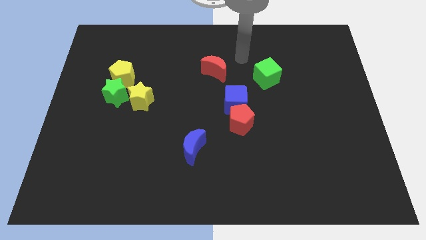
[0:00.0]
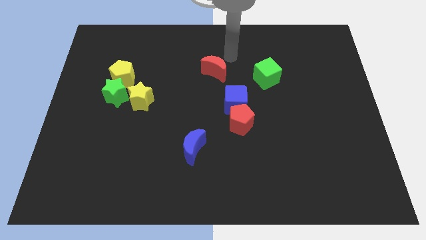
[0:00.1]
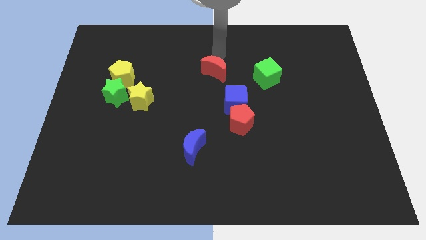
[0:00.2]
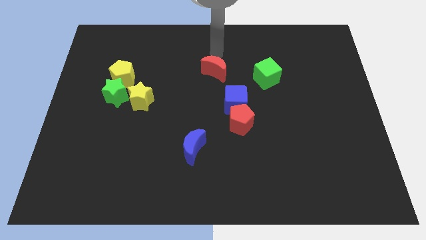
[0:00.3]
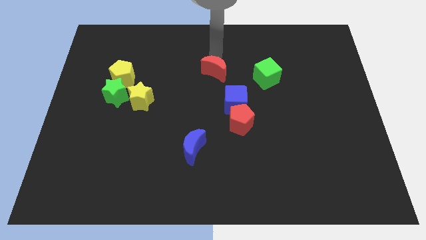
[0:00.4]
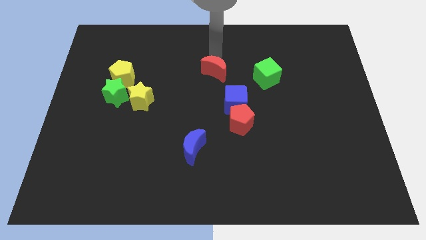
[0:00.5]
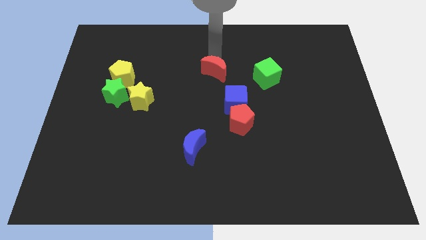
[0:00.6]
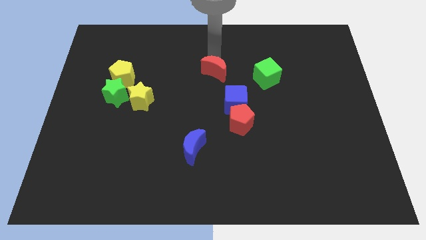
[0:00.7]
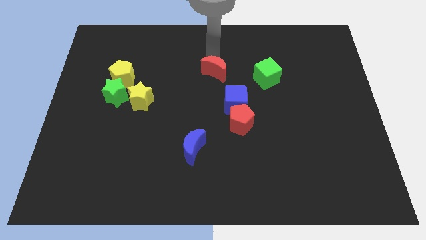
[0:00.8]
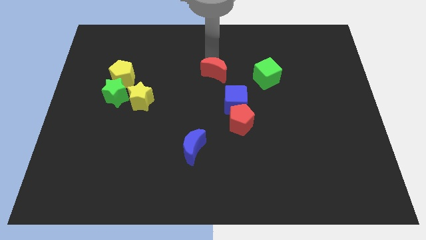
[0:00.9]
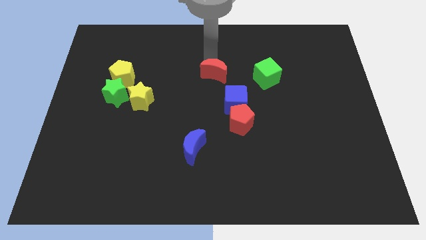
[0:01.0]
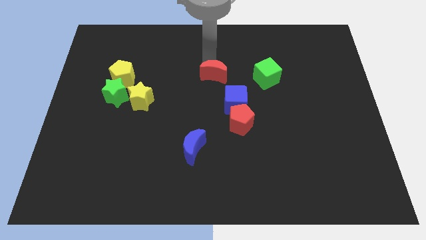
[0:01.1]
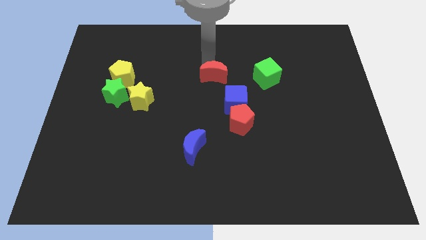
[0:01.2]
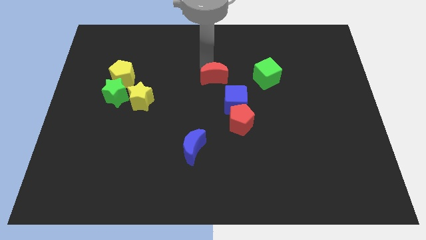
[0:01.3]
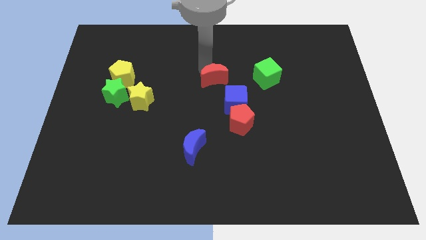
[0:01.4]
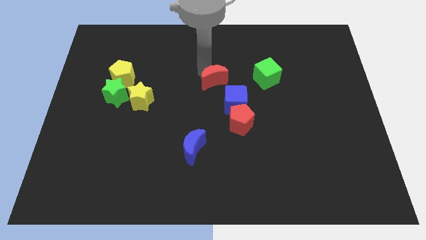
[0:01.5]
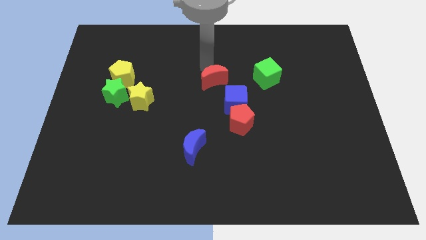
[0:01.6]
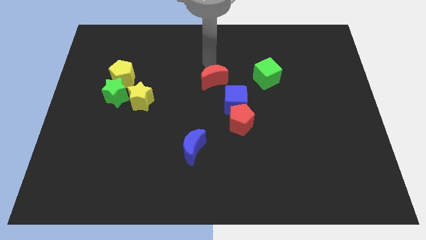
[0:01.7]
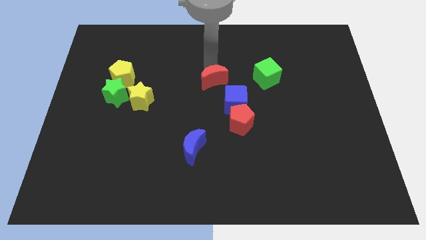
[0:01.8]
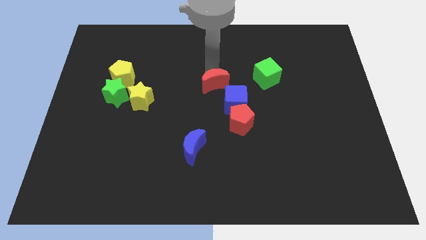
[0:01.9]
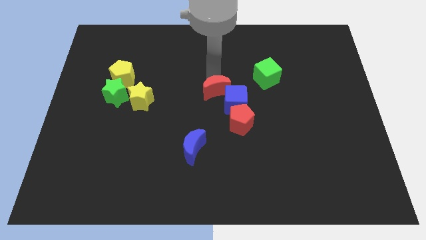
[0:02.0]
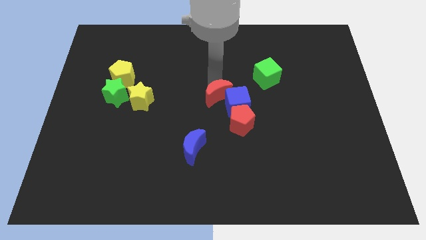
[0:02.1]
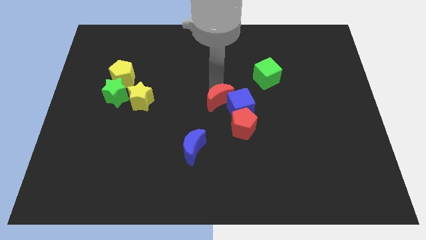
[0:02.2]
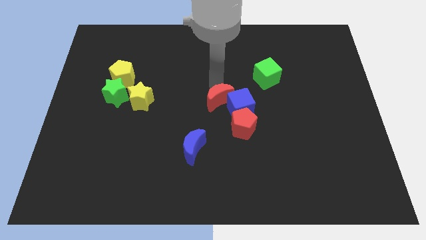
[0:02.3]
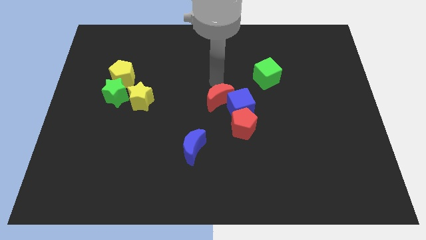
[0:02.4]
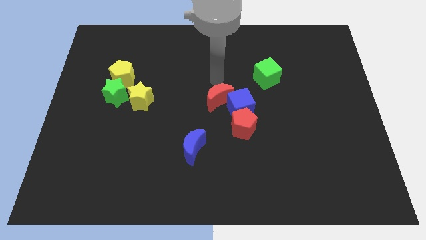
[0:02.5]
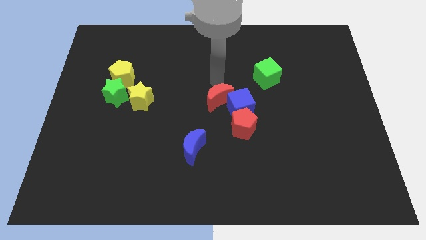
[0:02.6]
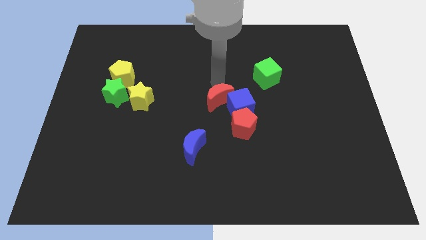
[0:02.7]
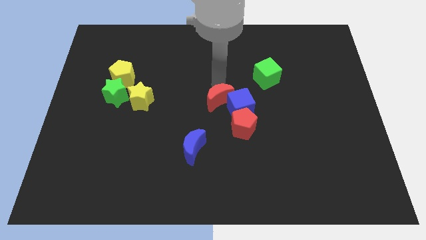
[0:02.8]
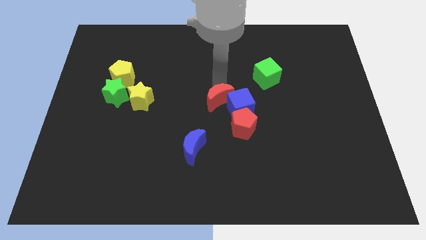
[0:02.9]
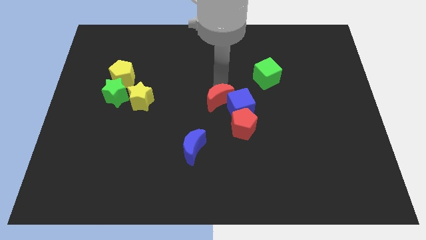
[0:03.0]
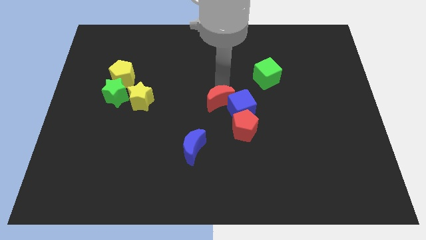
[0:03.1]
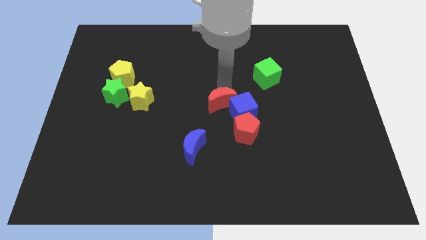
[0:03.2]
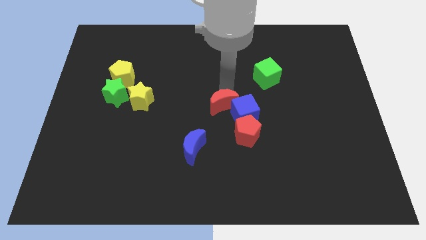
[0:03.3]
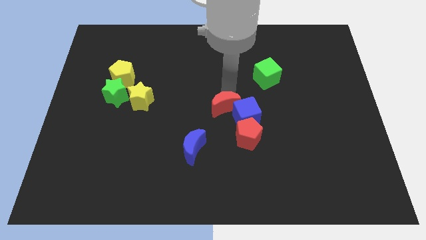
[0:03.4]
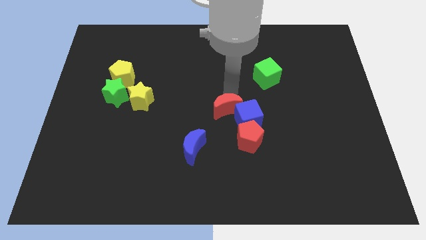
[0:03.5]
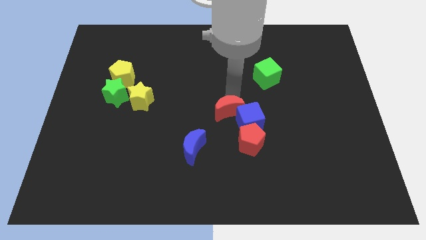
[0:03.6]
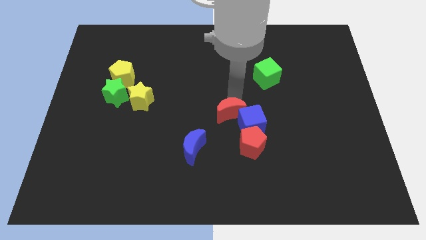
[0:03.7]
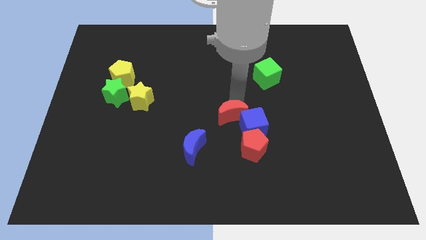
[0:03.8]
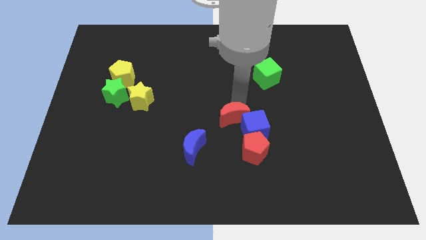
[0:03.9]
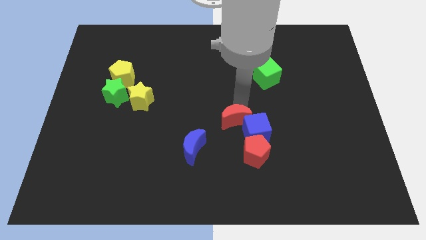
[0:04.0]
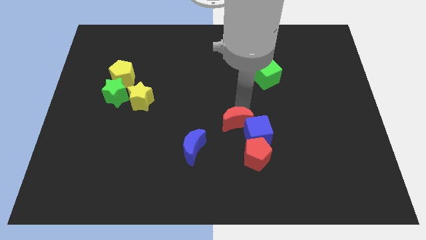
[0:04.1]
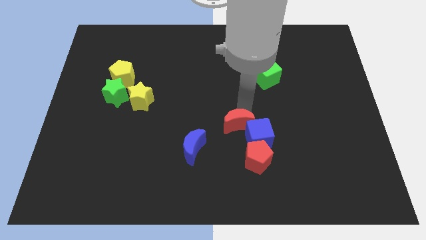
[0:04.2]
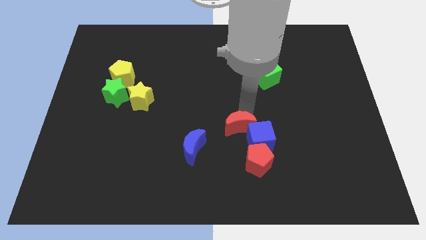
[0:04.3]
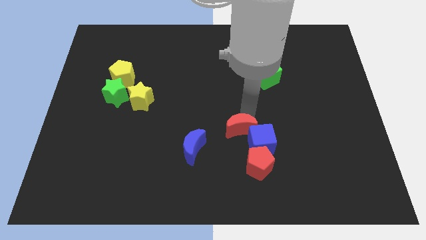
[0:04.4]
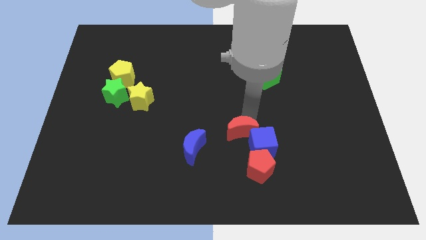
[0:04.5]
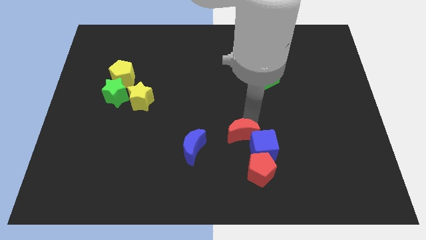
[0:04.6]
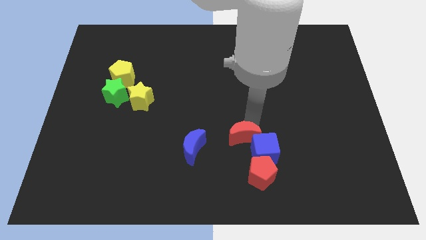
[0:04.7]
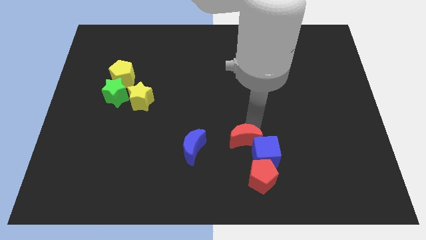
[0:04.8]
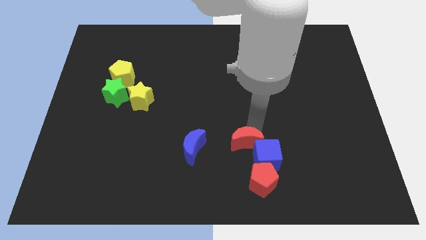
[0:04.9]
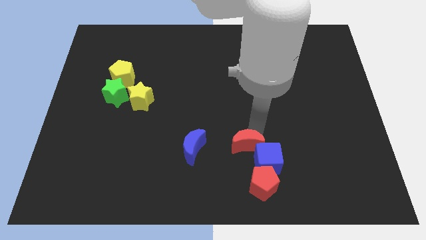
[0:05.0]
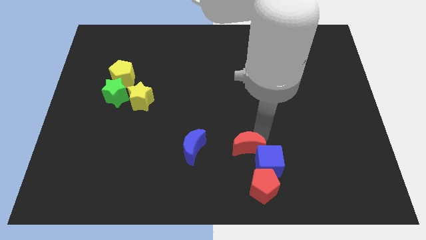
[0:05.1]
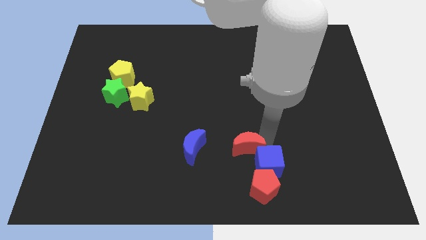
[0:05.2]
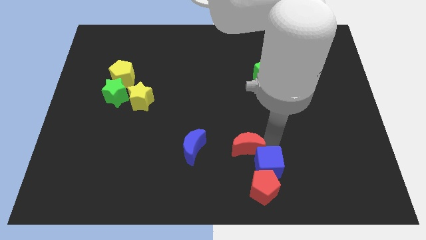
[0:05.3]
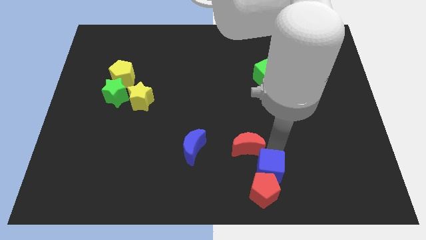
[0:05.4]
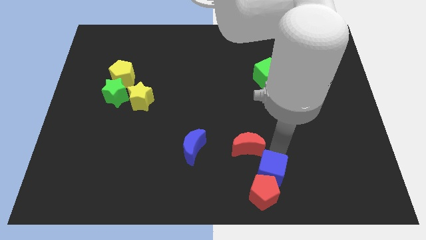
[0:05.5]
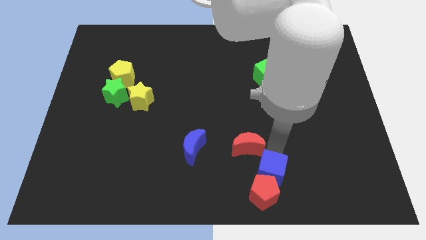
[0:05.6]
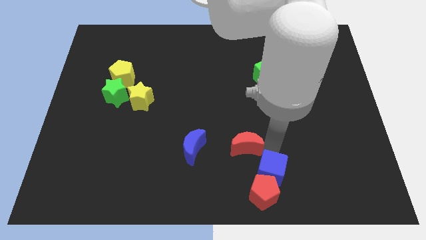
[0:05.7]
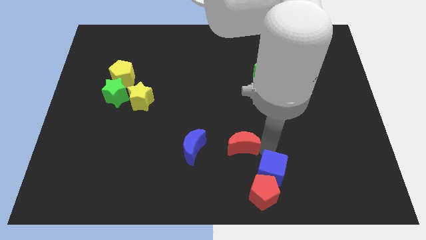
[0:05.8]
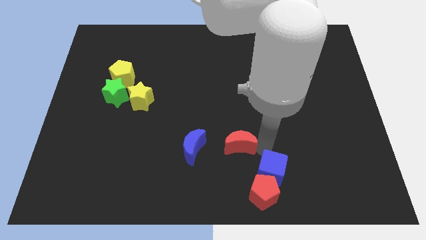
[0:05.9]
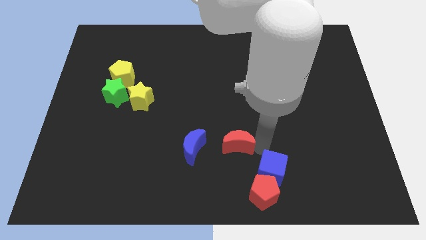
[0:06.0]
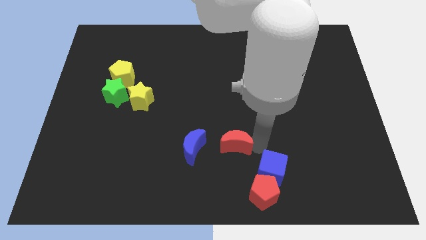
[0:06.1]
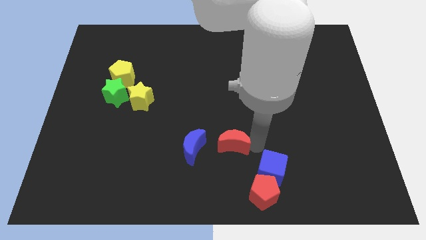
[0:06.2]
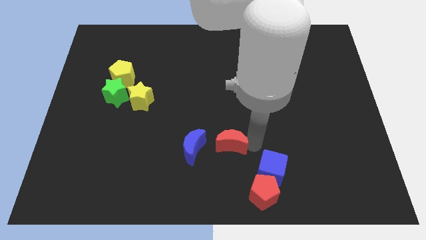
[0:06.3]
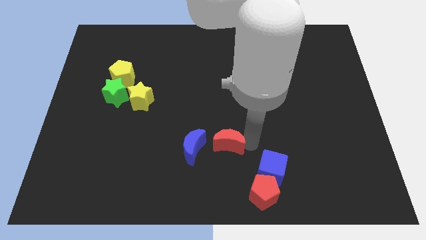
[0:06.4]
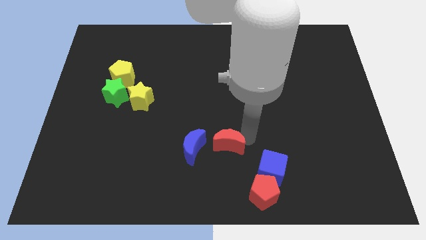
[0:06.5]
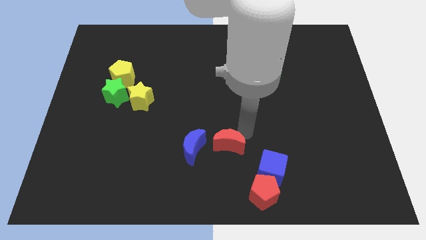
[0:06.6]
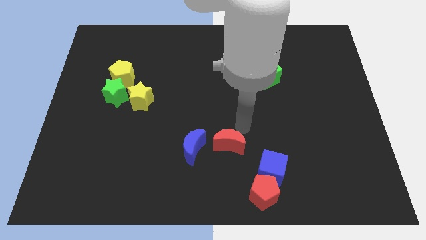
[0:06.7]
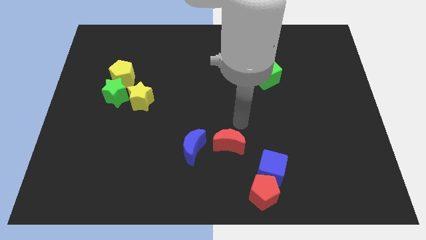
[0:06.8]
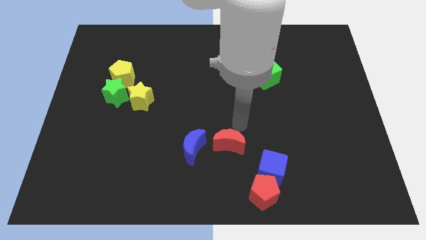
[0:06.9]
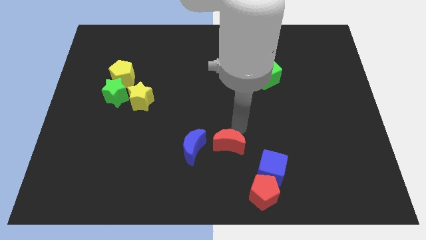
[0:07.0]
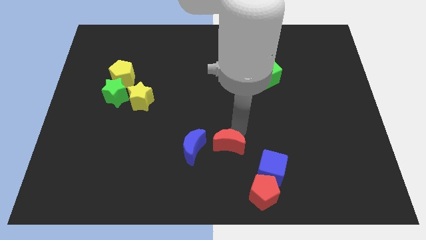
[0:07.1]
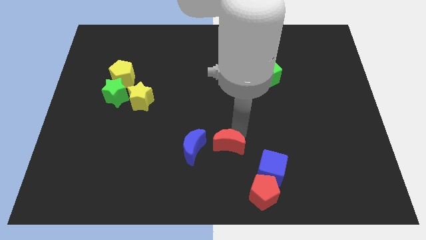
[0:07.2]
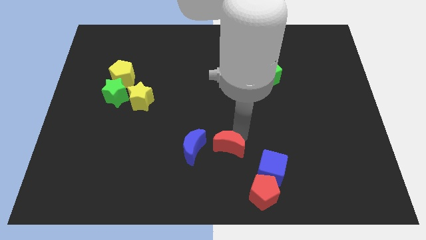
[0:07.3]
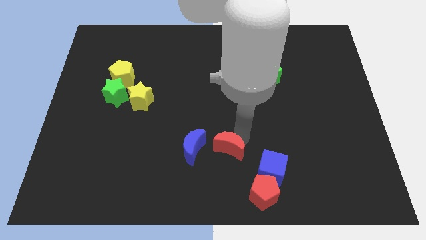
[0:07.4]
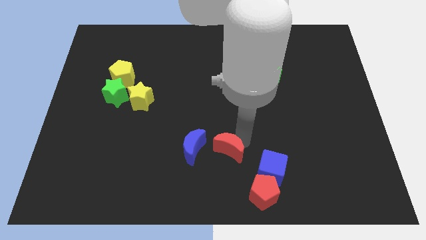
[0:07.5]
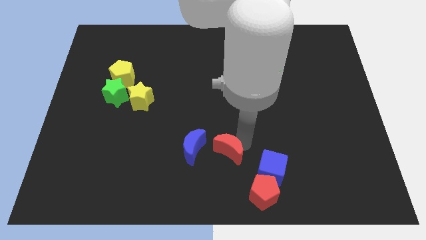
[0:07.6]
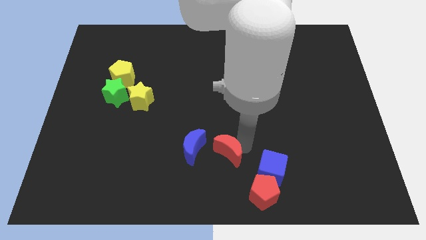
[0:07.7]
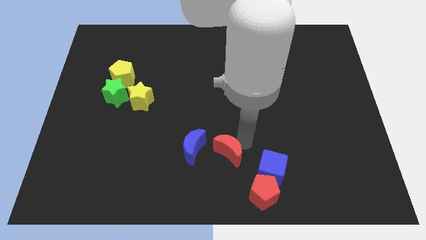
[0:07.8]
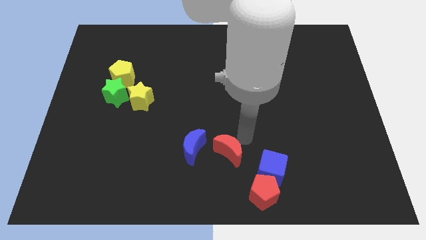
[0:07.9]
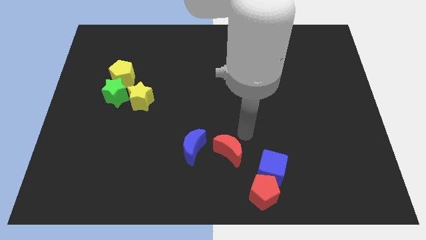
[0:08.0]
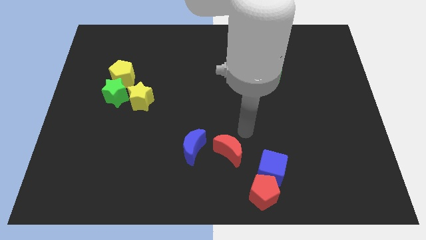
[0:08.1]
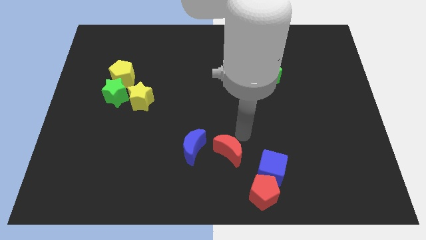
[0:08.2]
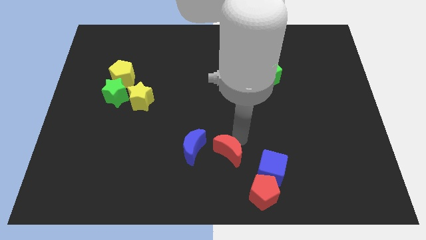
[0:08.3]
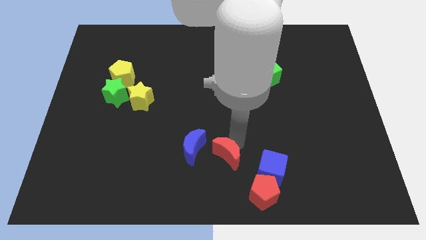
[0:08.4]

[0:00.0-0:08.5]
push the red moon to the bottom
